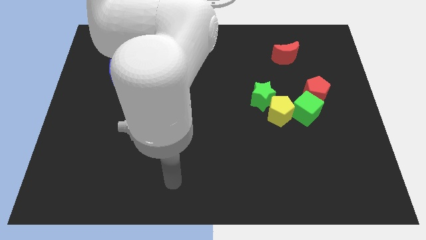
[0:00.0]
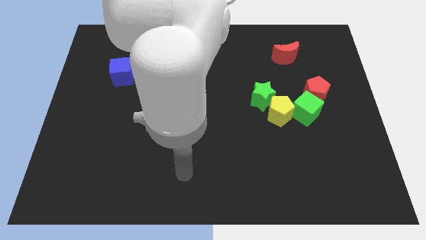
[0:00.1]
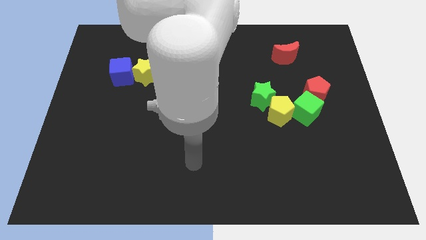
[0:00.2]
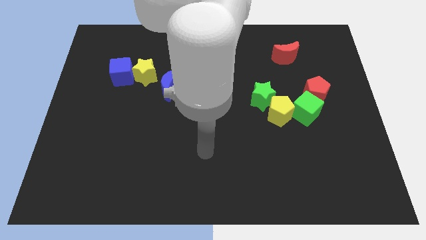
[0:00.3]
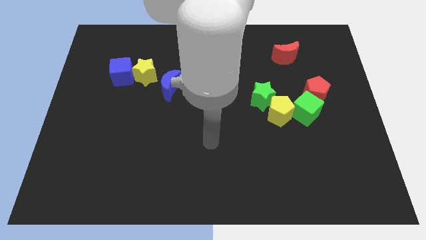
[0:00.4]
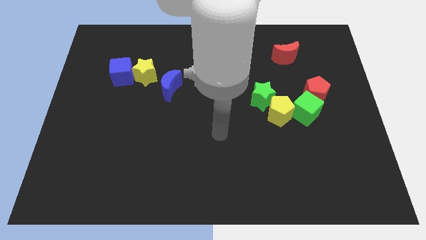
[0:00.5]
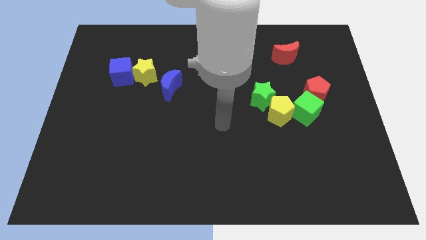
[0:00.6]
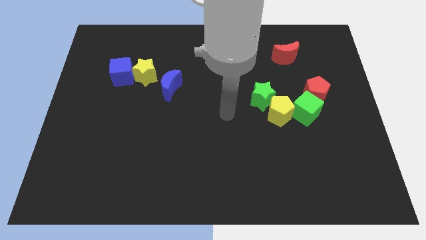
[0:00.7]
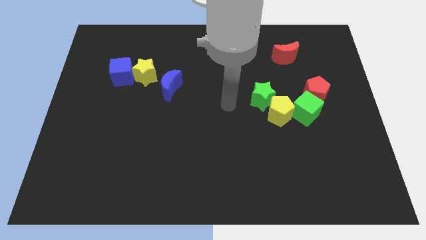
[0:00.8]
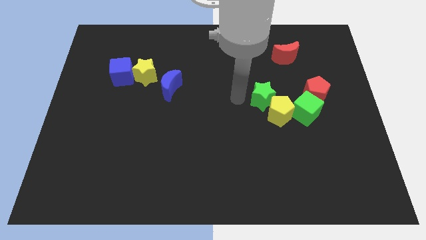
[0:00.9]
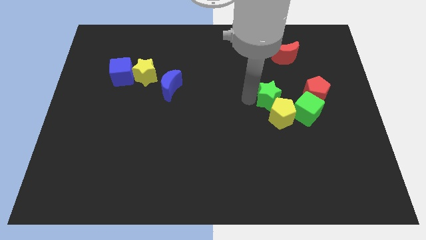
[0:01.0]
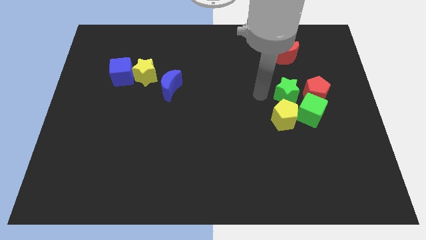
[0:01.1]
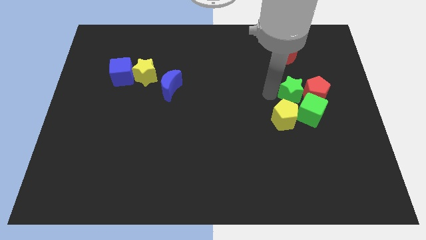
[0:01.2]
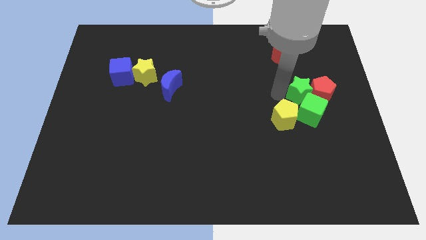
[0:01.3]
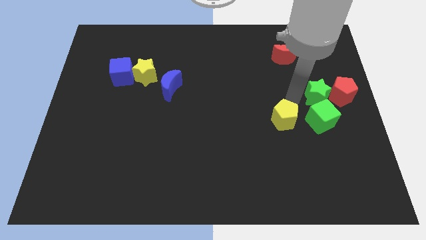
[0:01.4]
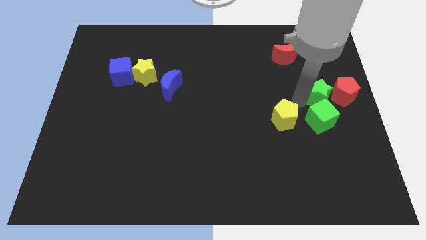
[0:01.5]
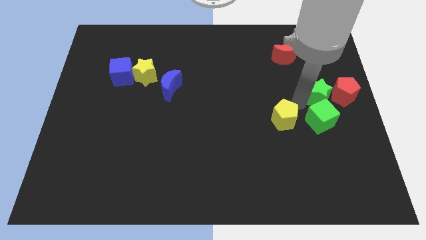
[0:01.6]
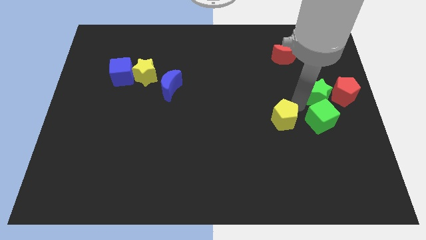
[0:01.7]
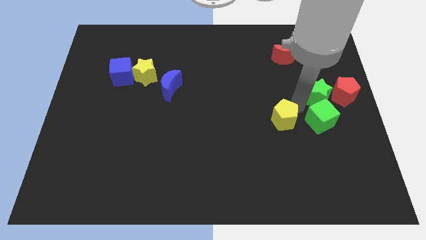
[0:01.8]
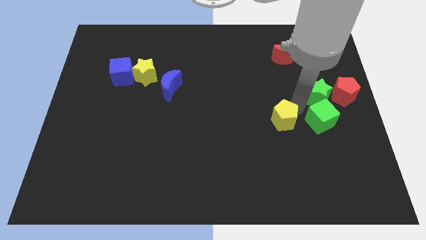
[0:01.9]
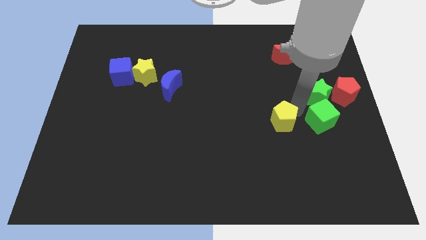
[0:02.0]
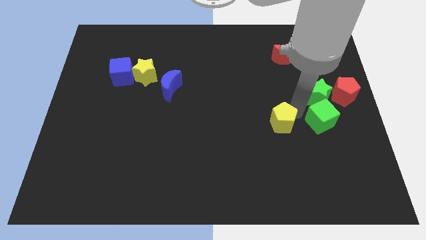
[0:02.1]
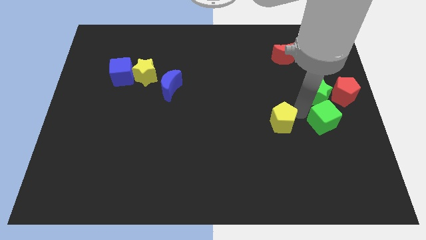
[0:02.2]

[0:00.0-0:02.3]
move the yellow pentagon away from the green star and green cube

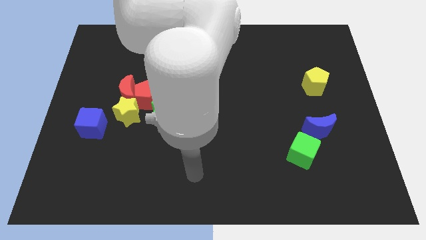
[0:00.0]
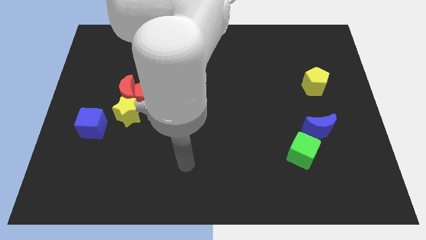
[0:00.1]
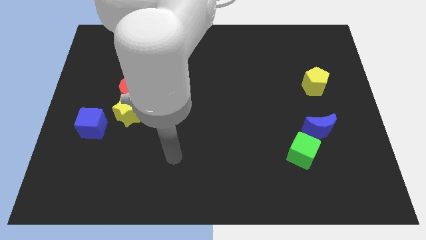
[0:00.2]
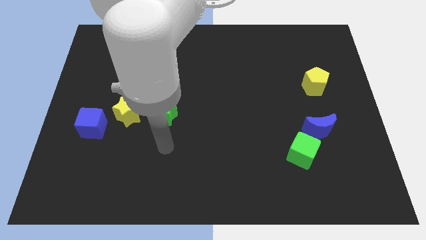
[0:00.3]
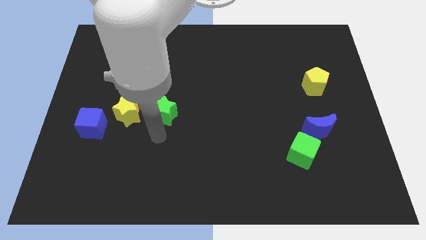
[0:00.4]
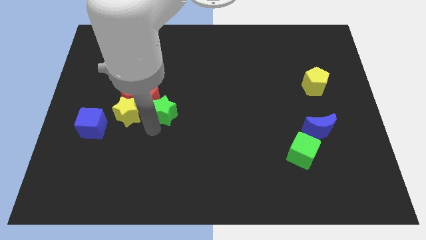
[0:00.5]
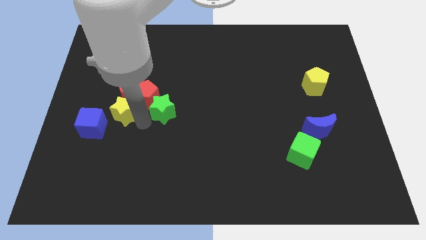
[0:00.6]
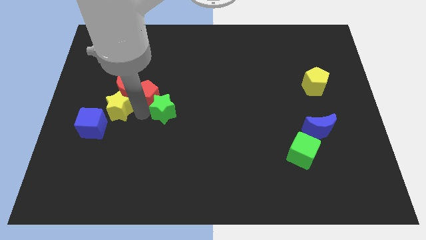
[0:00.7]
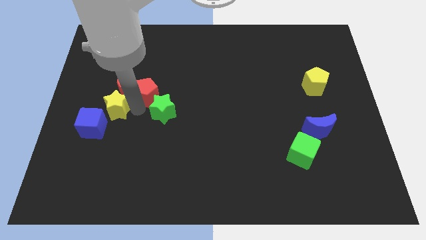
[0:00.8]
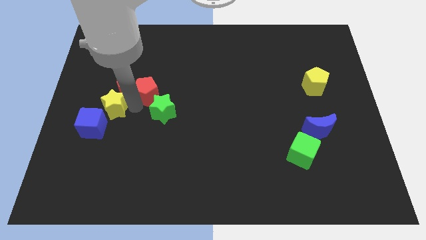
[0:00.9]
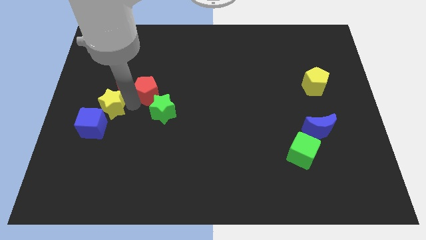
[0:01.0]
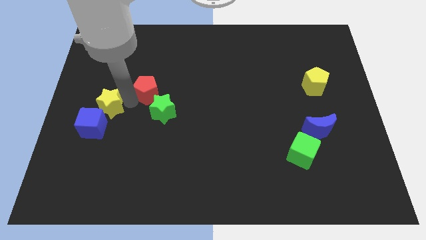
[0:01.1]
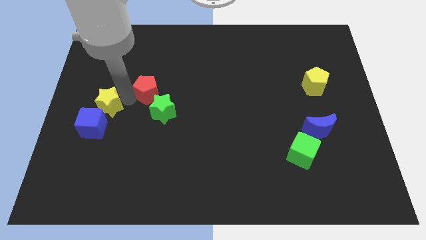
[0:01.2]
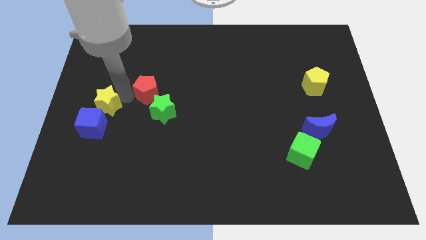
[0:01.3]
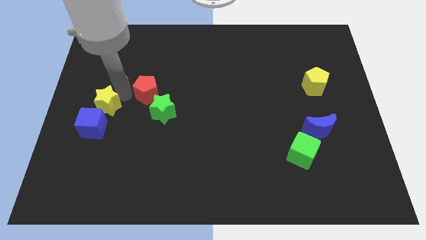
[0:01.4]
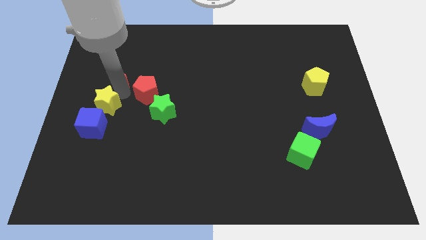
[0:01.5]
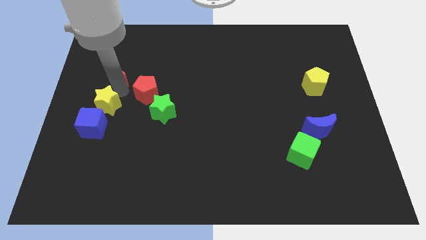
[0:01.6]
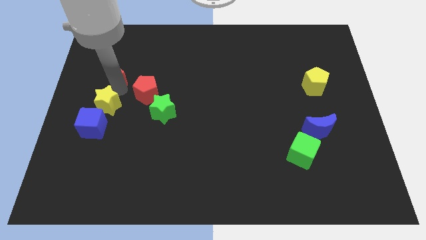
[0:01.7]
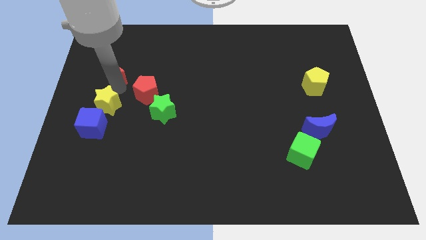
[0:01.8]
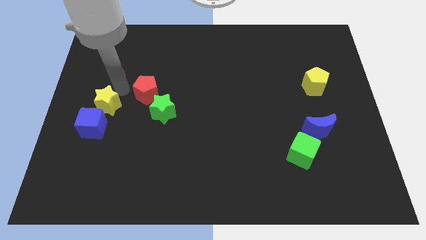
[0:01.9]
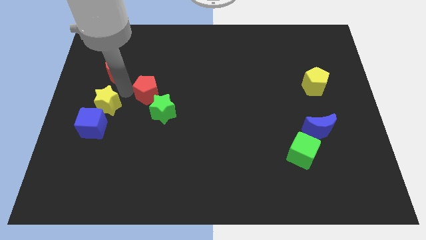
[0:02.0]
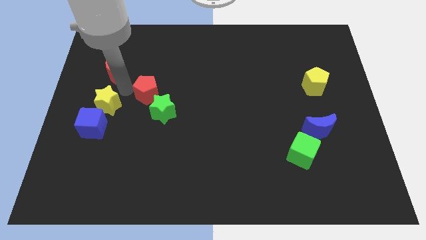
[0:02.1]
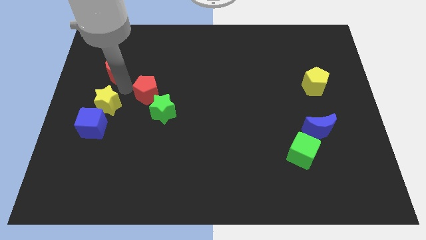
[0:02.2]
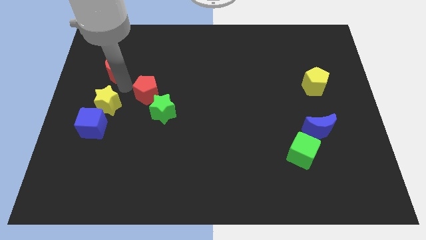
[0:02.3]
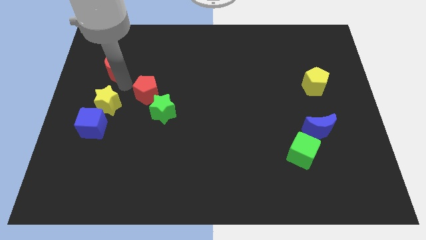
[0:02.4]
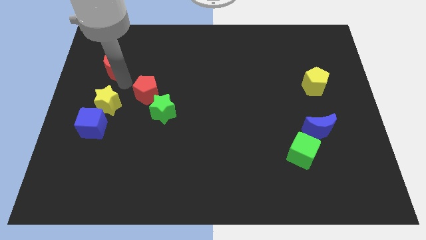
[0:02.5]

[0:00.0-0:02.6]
move the red moon away from the red pentagon and yellow star

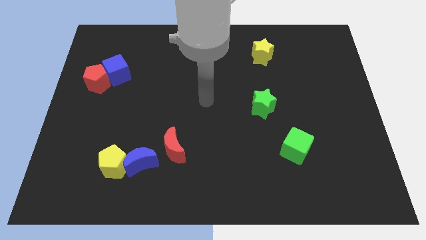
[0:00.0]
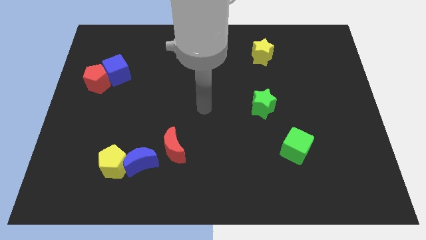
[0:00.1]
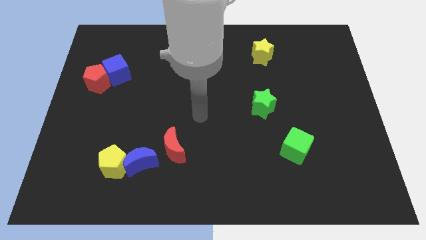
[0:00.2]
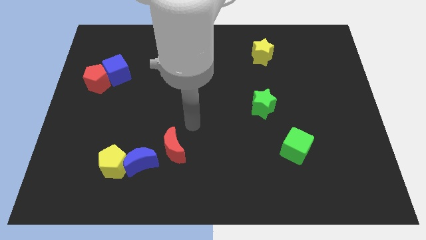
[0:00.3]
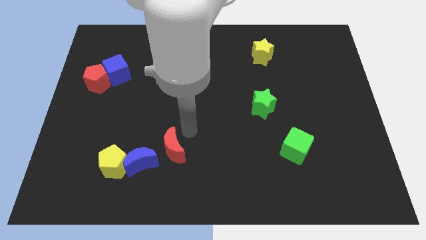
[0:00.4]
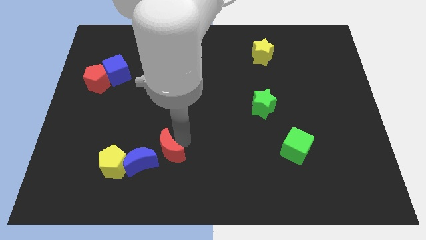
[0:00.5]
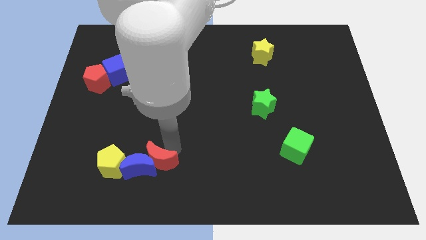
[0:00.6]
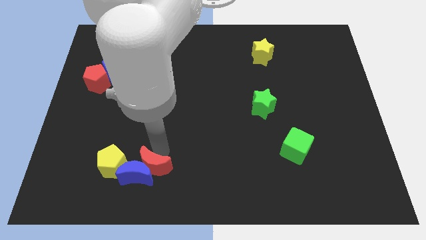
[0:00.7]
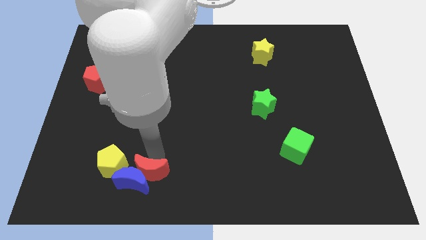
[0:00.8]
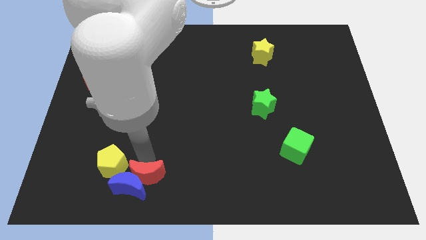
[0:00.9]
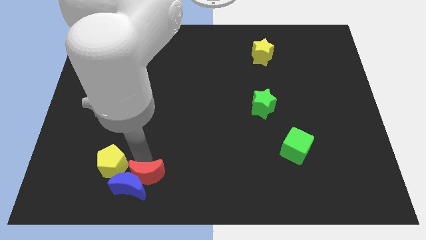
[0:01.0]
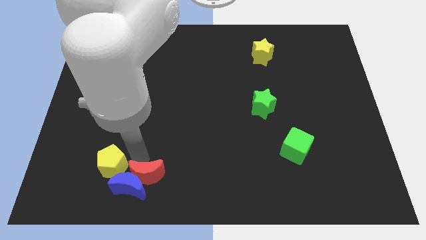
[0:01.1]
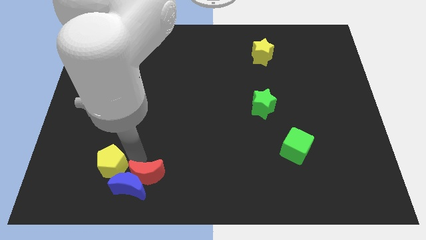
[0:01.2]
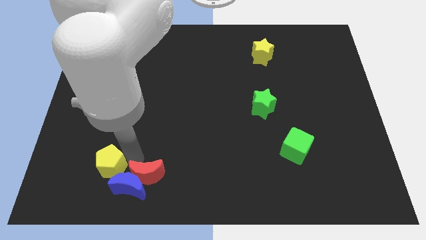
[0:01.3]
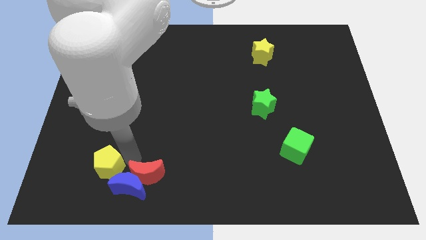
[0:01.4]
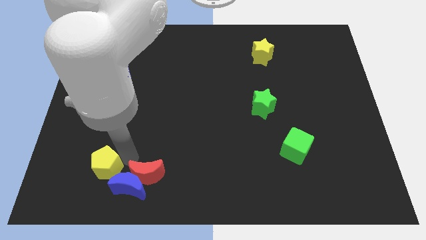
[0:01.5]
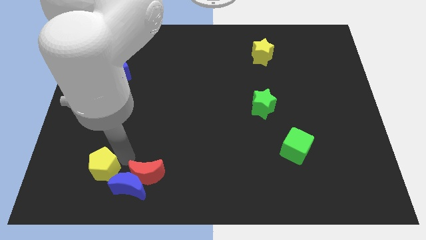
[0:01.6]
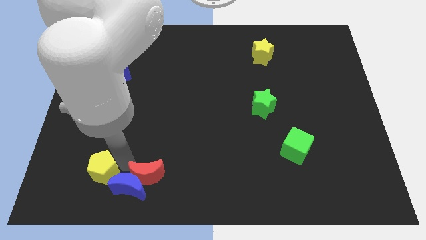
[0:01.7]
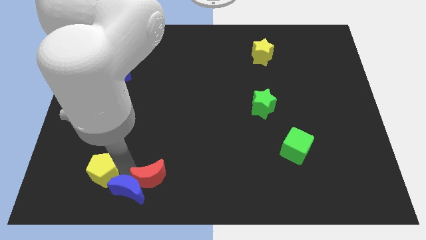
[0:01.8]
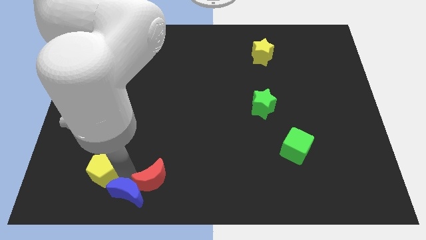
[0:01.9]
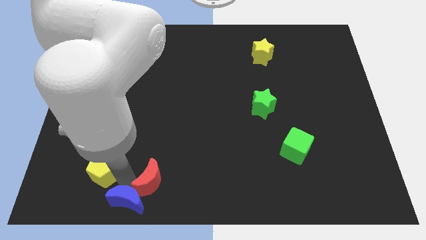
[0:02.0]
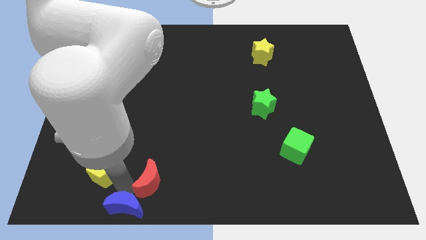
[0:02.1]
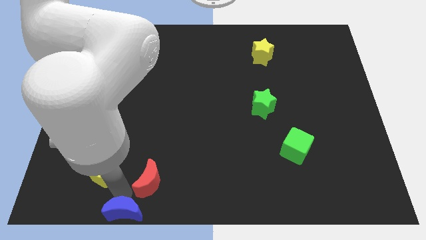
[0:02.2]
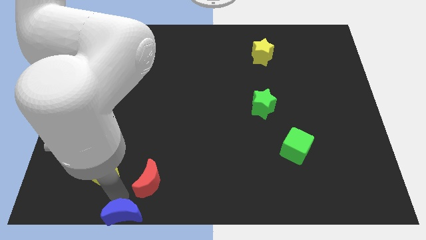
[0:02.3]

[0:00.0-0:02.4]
pull the yellow pentagon apart from the blue moon

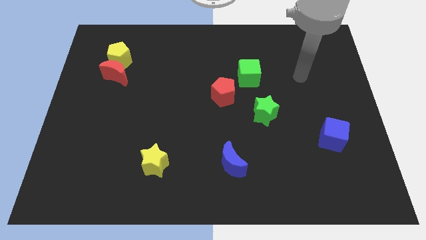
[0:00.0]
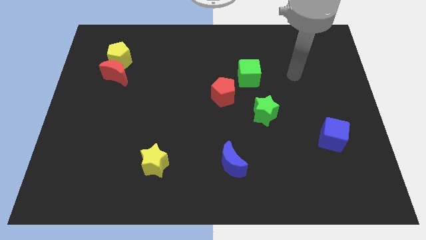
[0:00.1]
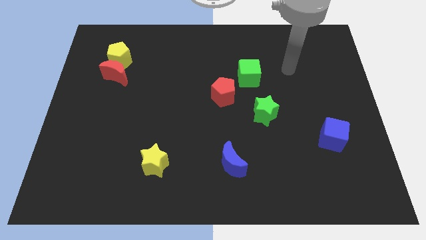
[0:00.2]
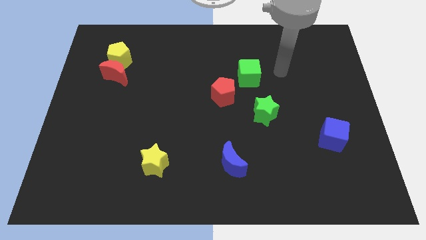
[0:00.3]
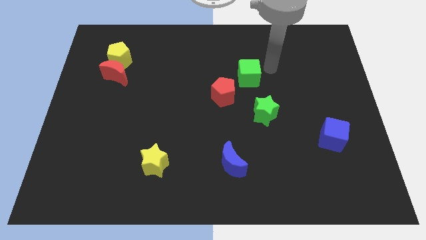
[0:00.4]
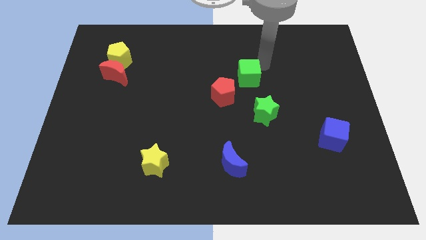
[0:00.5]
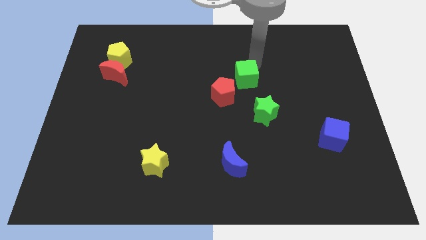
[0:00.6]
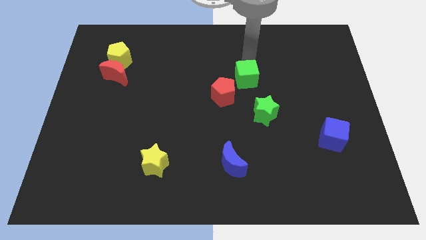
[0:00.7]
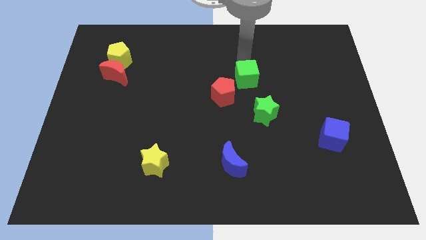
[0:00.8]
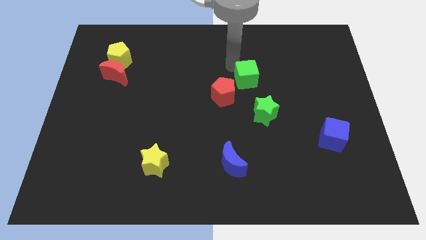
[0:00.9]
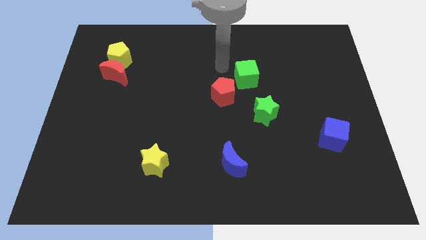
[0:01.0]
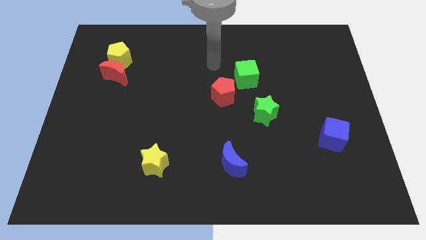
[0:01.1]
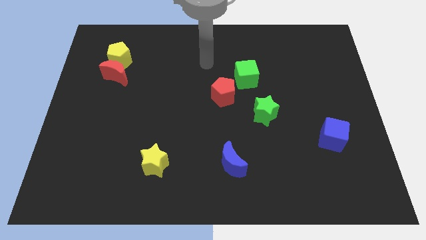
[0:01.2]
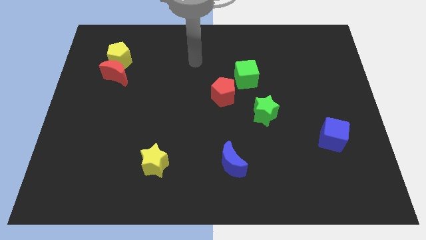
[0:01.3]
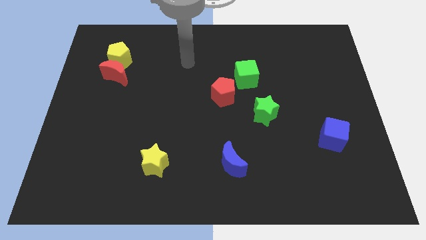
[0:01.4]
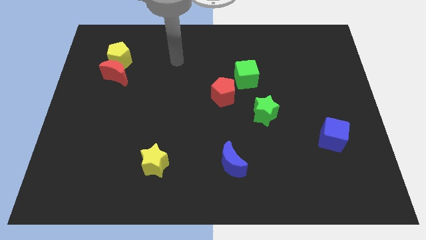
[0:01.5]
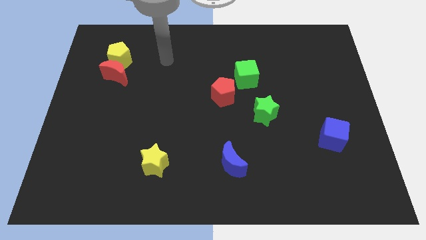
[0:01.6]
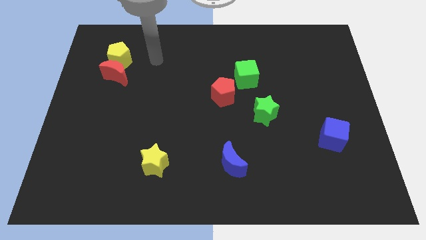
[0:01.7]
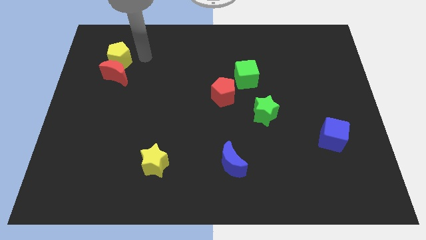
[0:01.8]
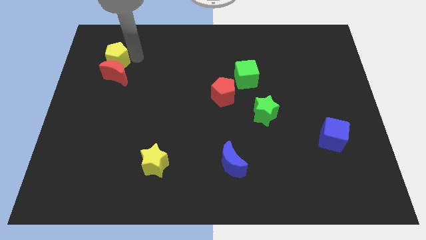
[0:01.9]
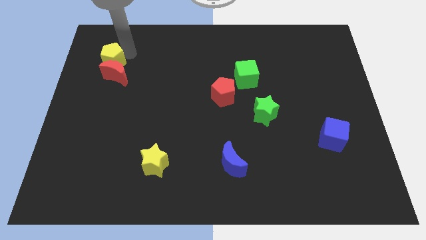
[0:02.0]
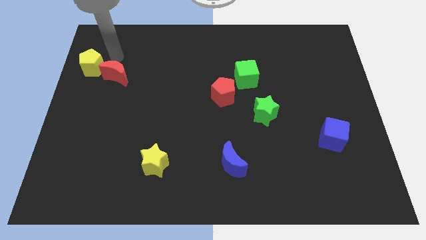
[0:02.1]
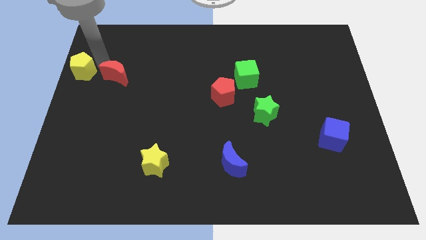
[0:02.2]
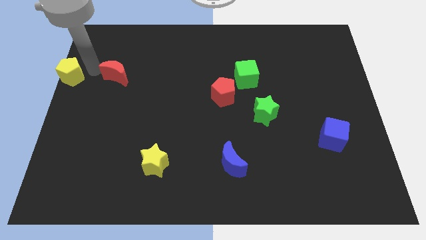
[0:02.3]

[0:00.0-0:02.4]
move the red moon away from the yellow pentagon
